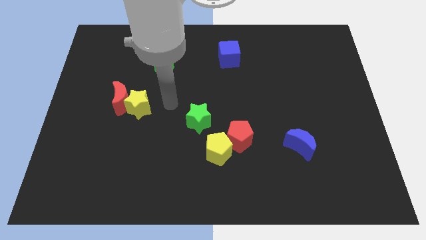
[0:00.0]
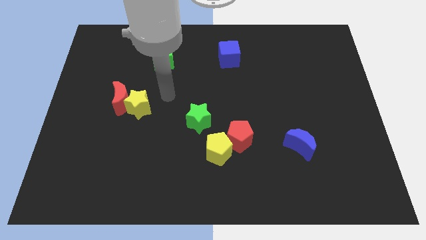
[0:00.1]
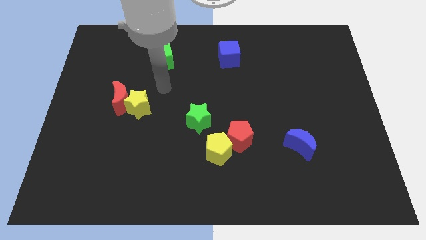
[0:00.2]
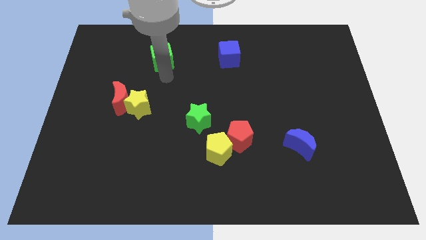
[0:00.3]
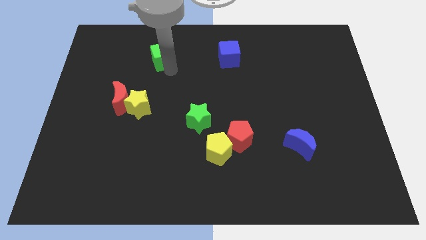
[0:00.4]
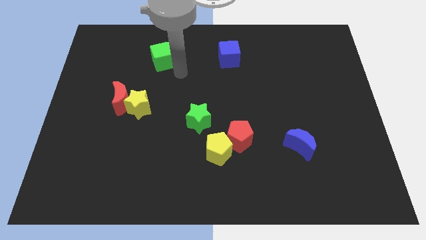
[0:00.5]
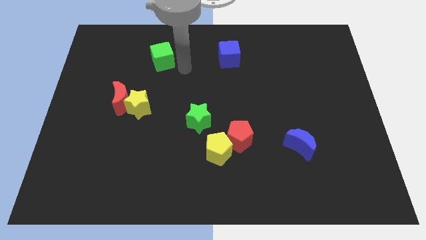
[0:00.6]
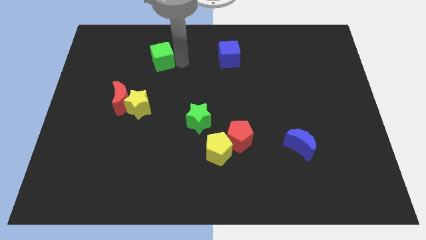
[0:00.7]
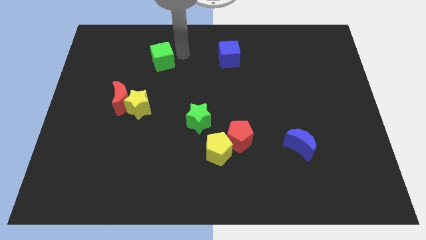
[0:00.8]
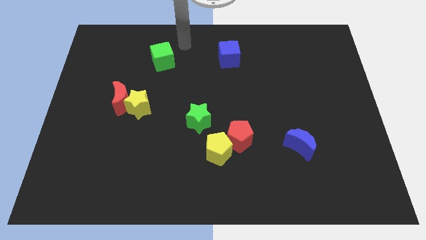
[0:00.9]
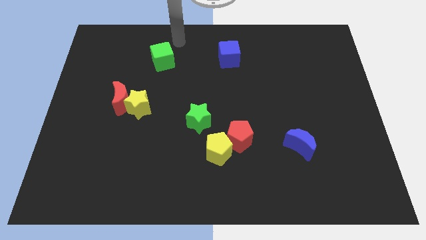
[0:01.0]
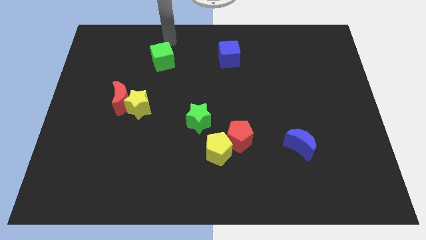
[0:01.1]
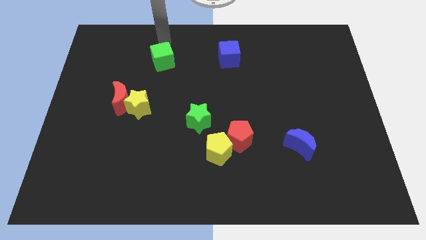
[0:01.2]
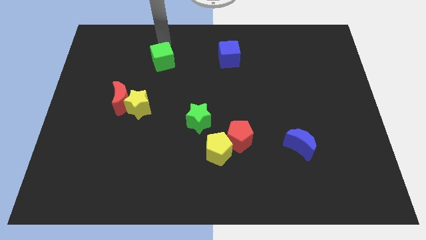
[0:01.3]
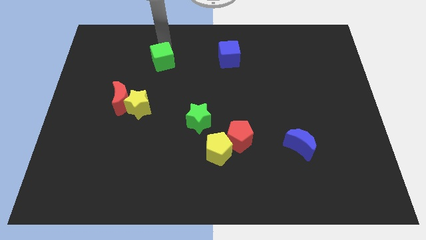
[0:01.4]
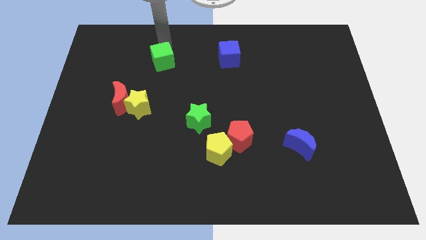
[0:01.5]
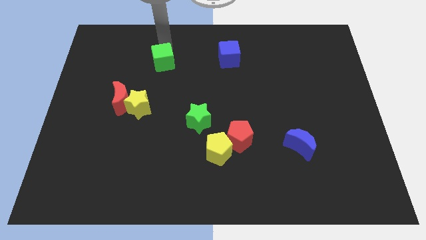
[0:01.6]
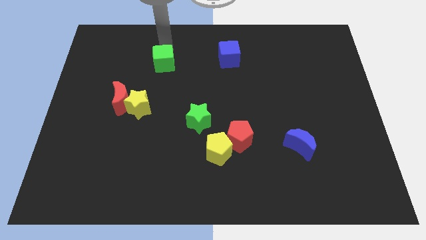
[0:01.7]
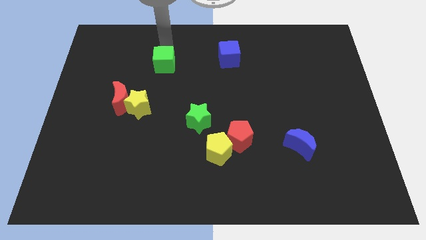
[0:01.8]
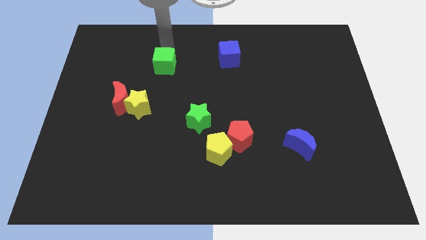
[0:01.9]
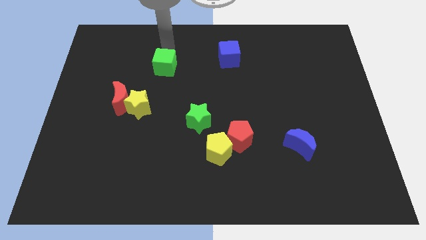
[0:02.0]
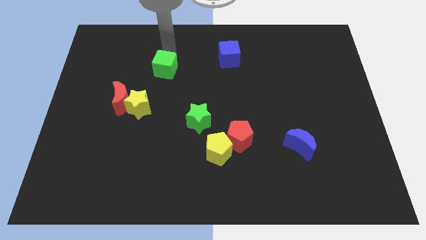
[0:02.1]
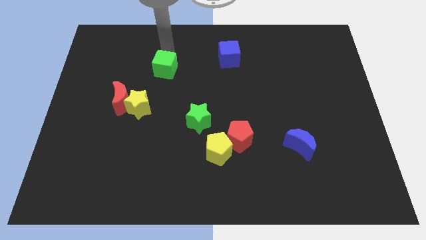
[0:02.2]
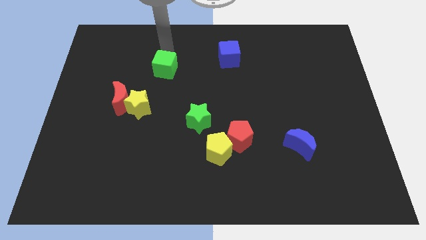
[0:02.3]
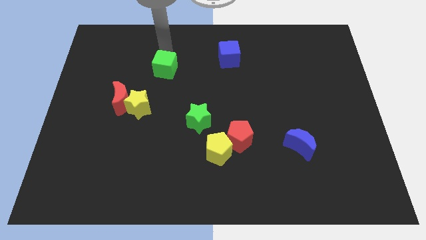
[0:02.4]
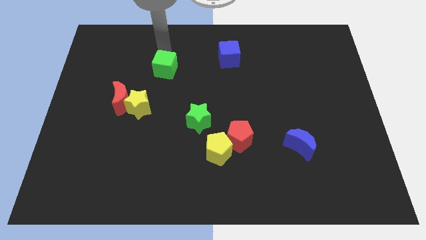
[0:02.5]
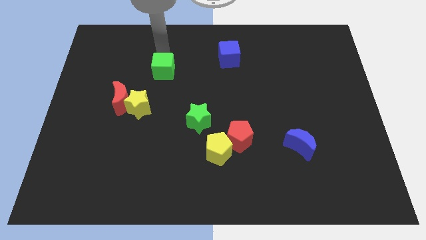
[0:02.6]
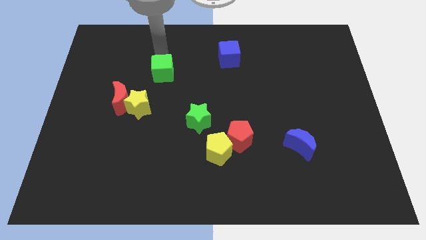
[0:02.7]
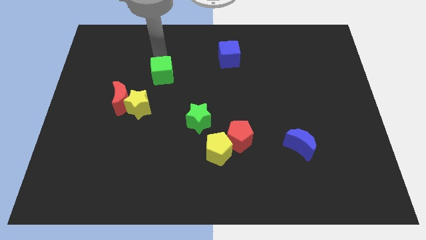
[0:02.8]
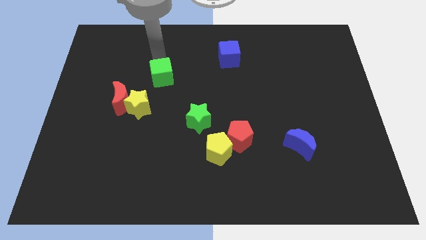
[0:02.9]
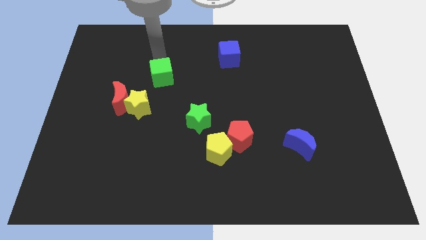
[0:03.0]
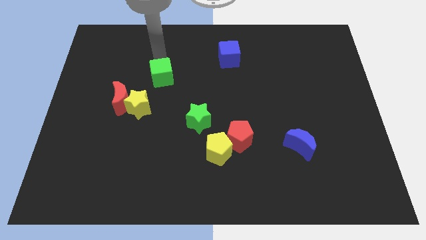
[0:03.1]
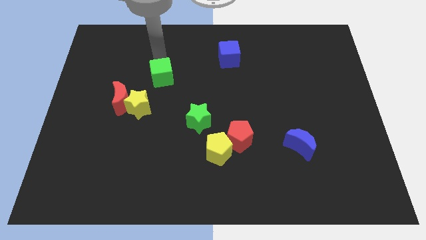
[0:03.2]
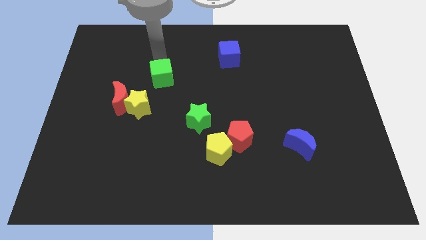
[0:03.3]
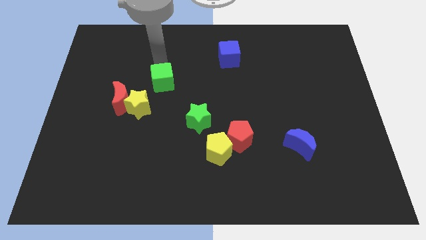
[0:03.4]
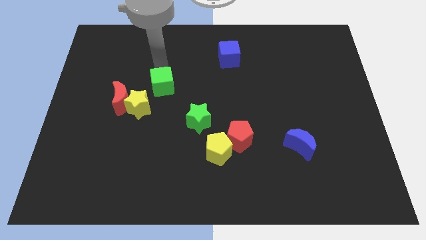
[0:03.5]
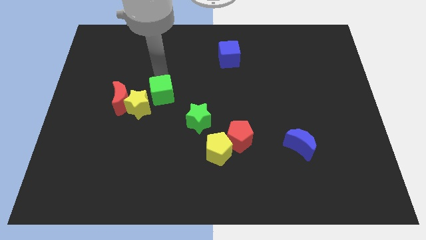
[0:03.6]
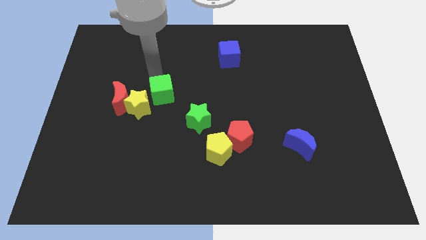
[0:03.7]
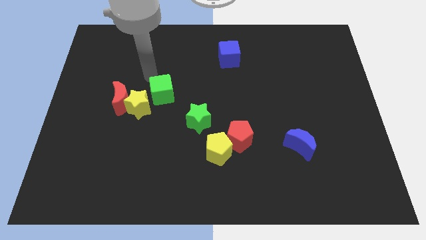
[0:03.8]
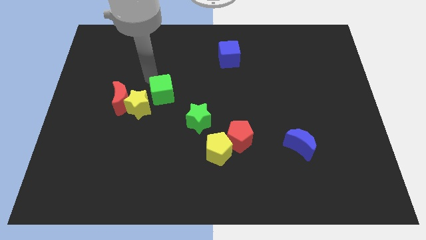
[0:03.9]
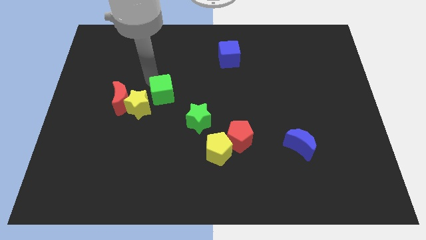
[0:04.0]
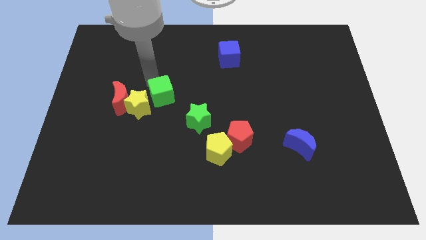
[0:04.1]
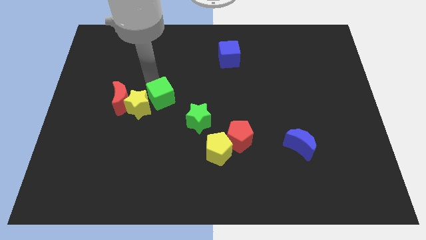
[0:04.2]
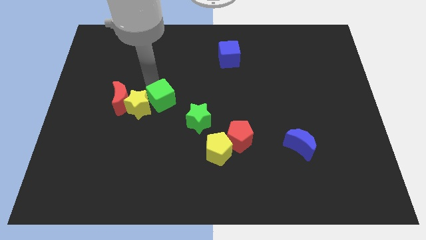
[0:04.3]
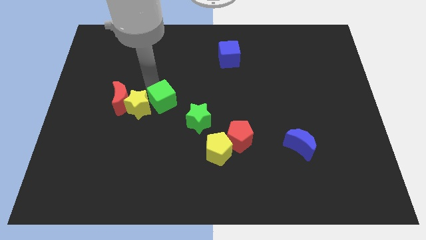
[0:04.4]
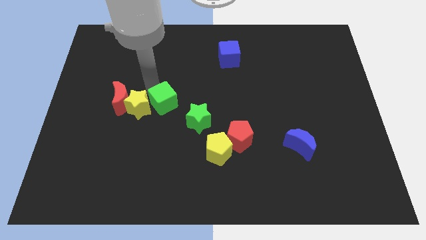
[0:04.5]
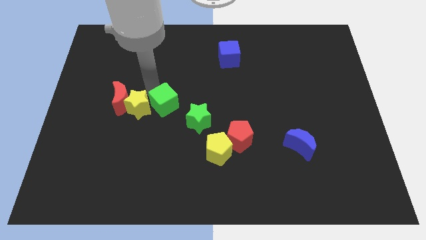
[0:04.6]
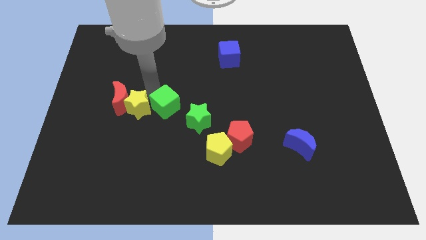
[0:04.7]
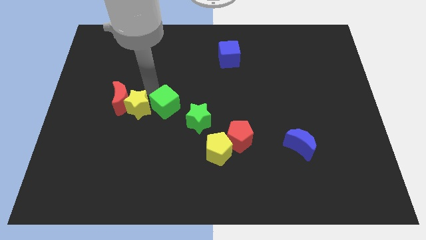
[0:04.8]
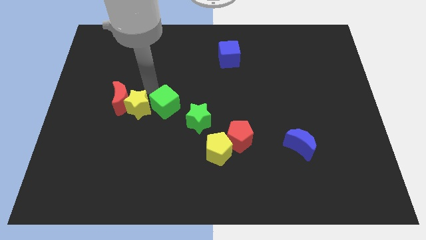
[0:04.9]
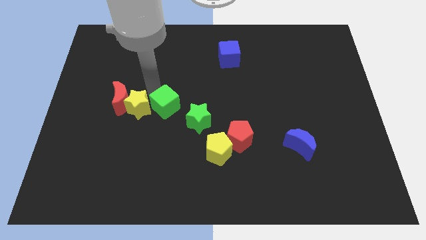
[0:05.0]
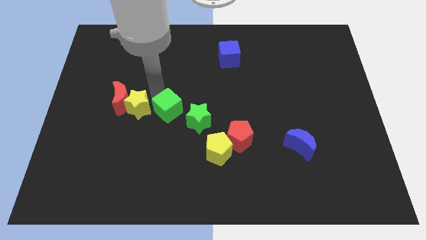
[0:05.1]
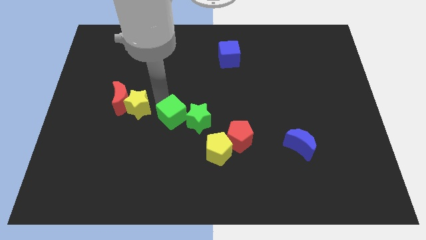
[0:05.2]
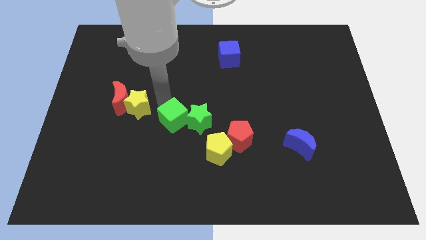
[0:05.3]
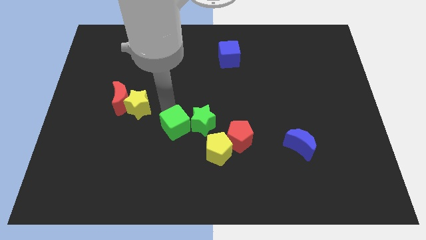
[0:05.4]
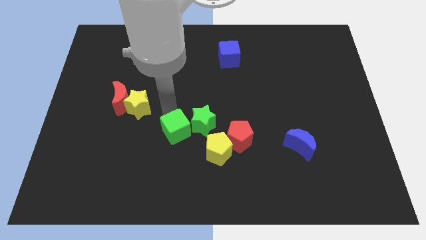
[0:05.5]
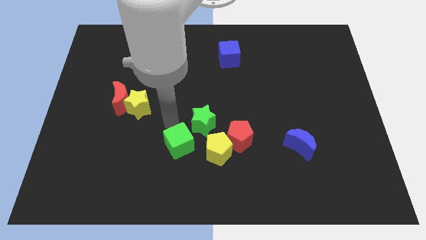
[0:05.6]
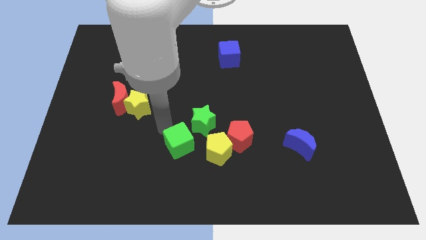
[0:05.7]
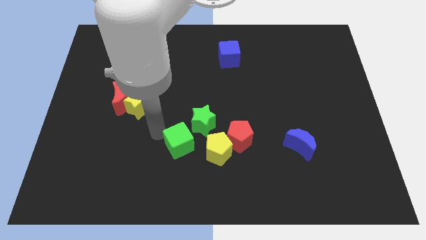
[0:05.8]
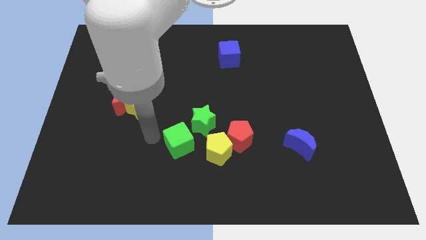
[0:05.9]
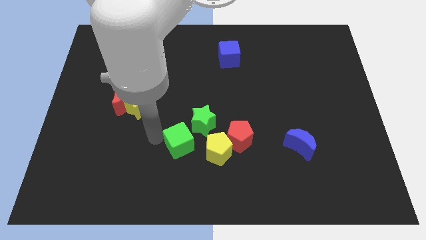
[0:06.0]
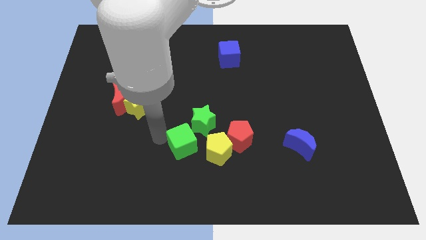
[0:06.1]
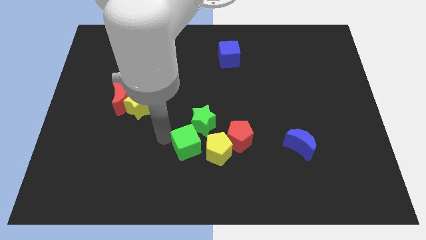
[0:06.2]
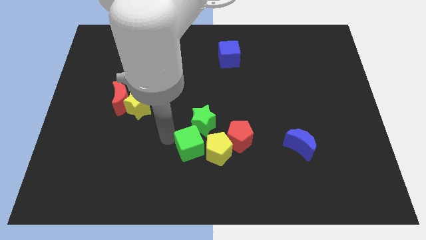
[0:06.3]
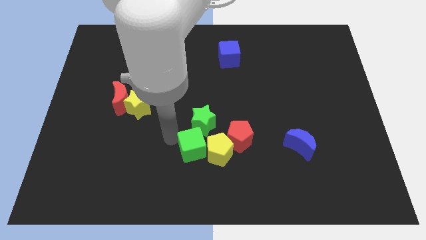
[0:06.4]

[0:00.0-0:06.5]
move the green cube close to the yellow pentagon

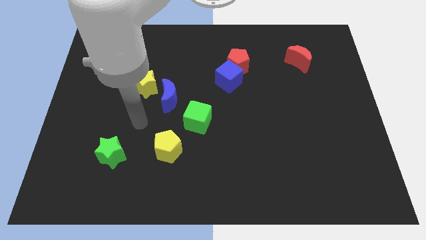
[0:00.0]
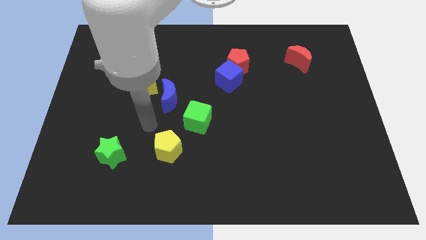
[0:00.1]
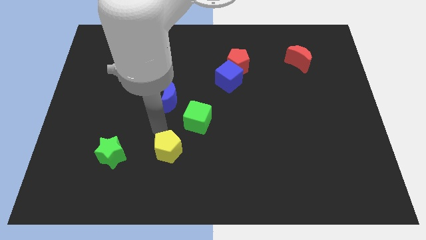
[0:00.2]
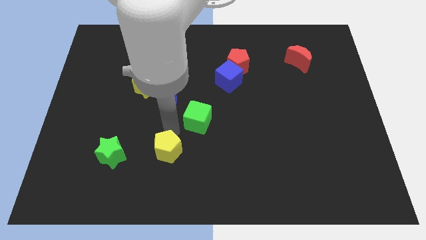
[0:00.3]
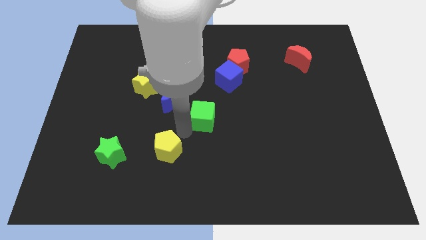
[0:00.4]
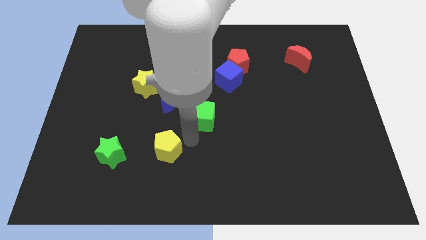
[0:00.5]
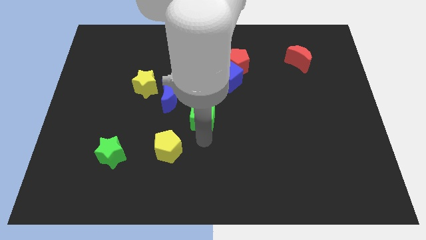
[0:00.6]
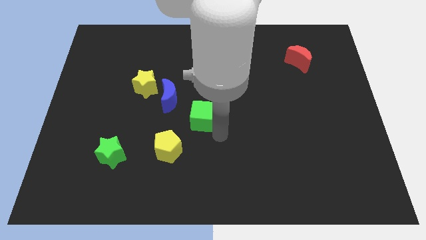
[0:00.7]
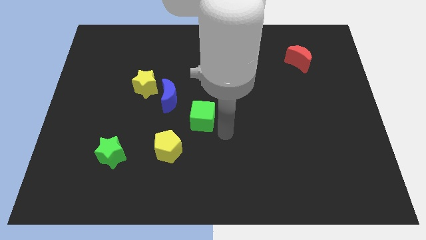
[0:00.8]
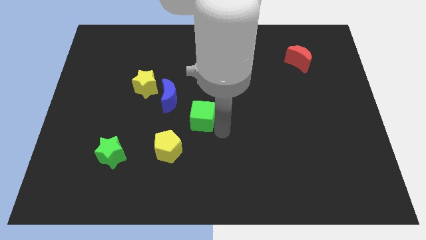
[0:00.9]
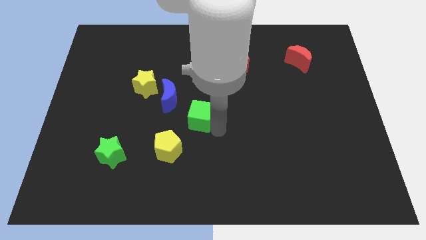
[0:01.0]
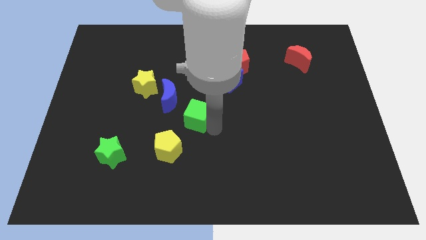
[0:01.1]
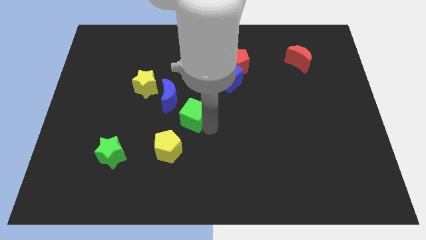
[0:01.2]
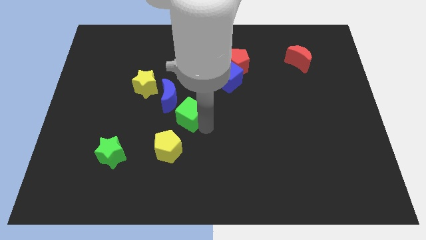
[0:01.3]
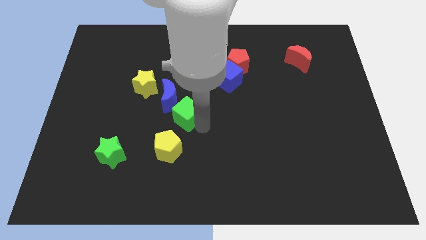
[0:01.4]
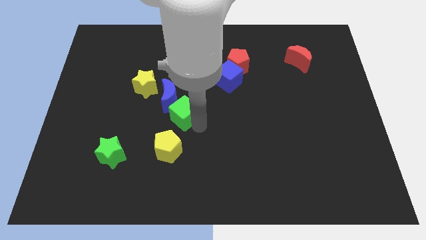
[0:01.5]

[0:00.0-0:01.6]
put the green cube close to the blue moon
